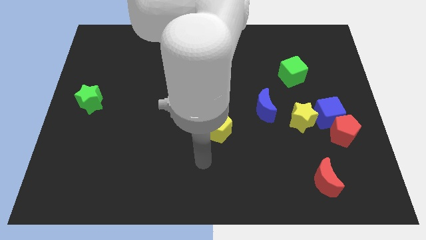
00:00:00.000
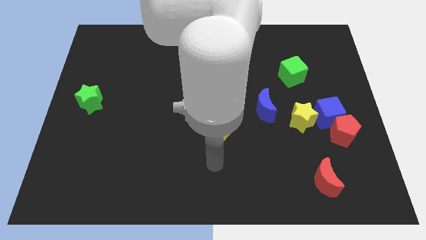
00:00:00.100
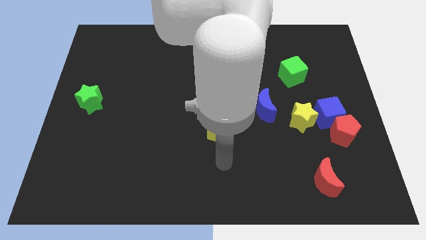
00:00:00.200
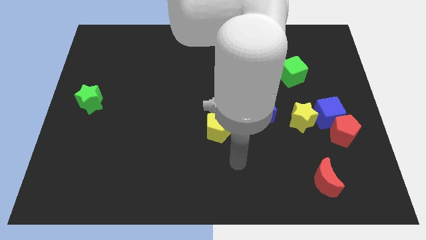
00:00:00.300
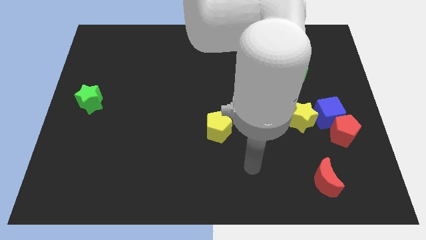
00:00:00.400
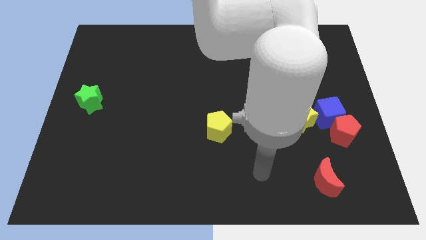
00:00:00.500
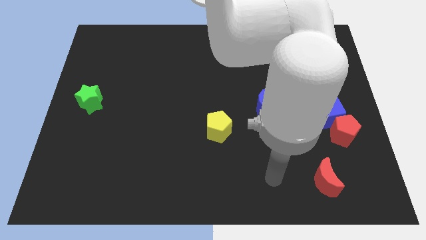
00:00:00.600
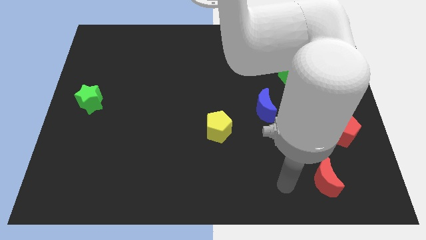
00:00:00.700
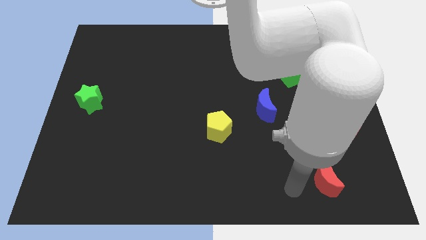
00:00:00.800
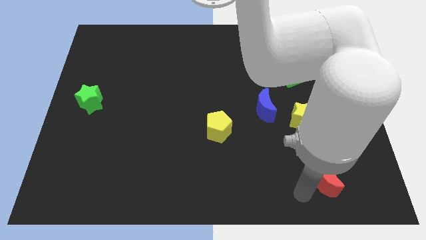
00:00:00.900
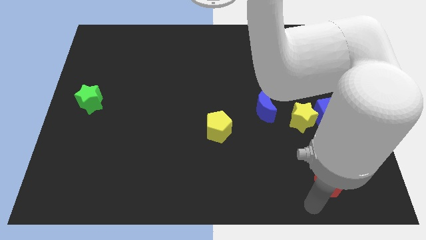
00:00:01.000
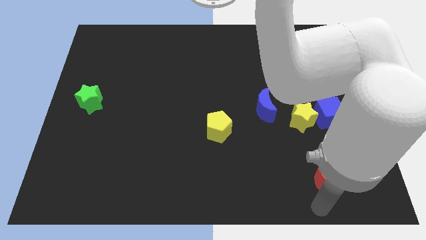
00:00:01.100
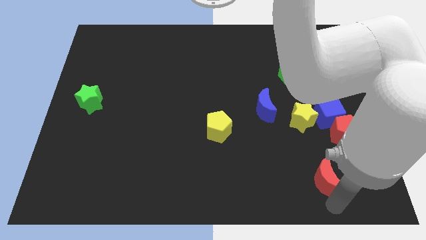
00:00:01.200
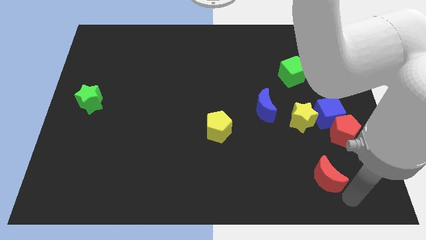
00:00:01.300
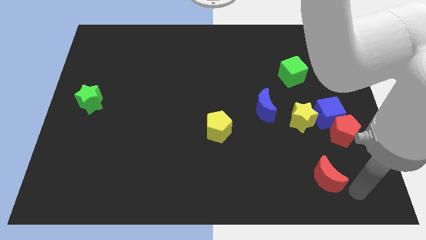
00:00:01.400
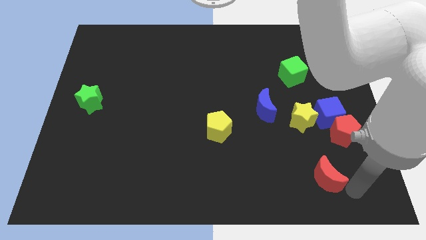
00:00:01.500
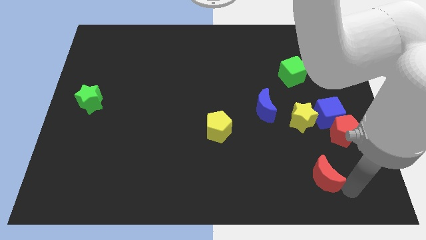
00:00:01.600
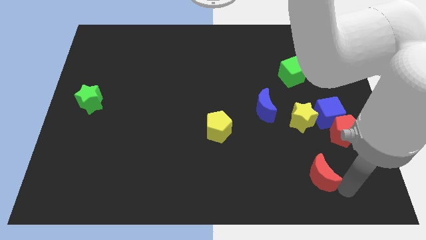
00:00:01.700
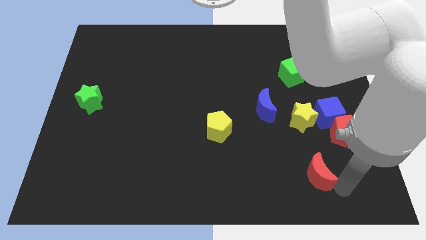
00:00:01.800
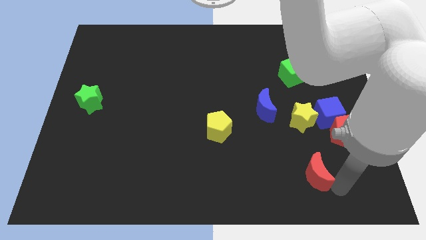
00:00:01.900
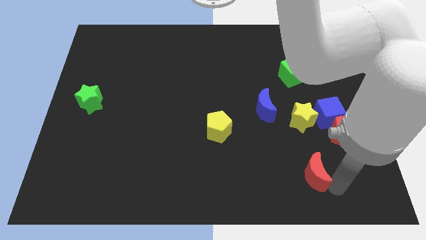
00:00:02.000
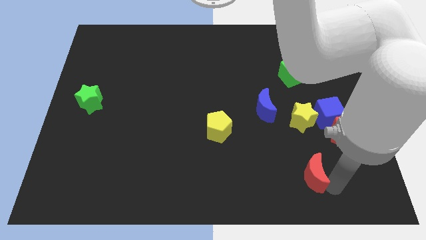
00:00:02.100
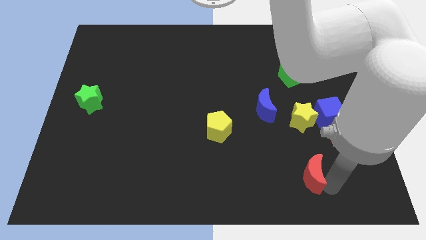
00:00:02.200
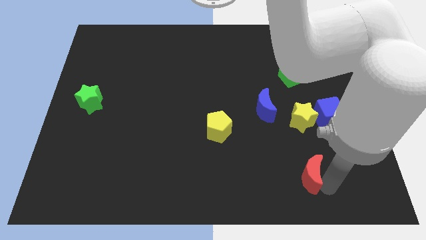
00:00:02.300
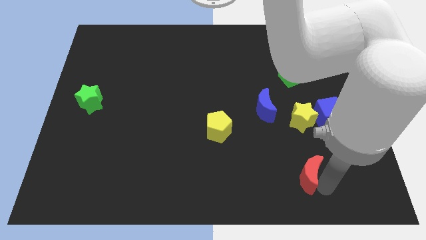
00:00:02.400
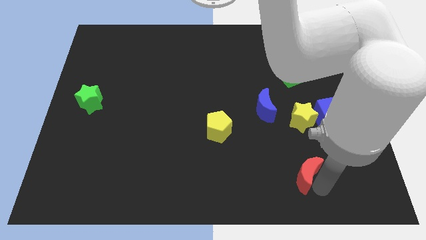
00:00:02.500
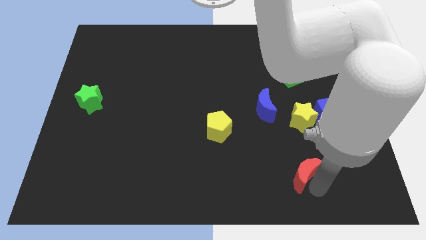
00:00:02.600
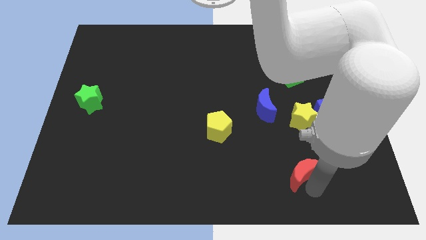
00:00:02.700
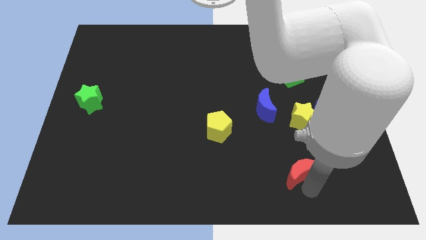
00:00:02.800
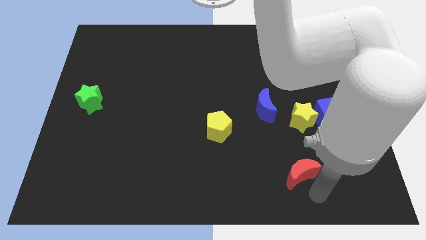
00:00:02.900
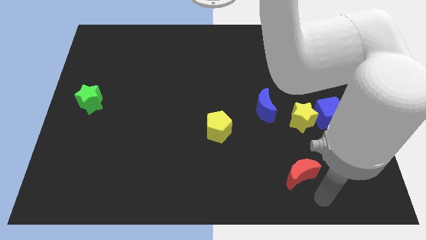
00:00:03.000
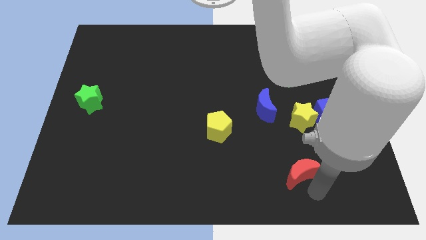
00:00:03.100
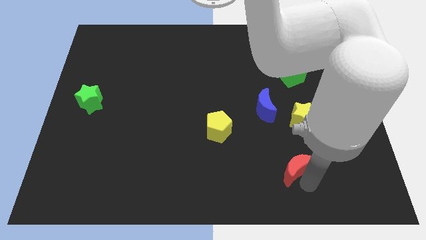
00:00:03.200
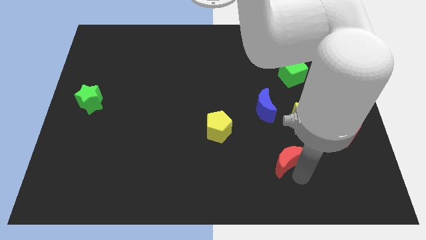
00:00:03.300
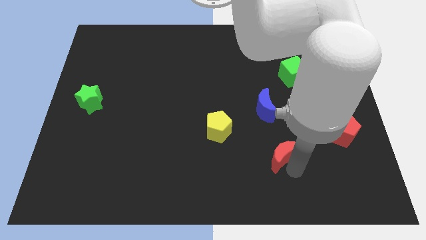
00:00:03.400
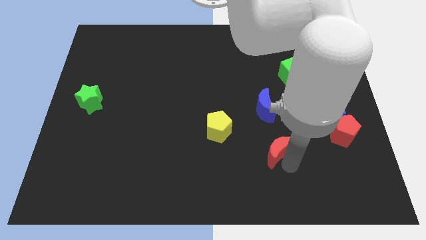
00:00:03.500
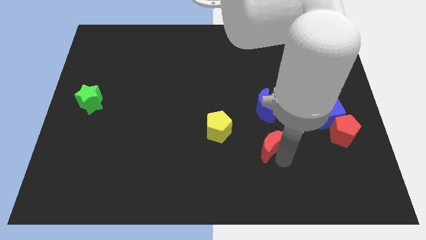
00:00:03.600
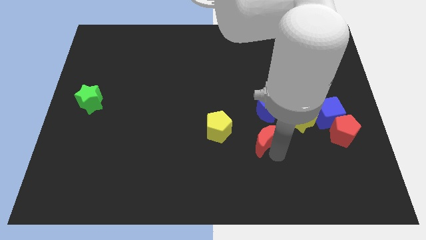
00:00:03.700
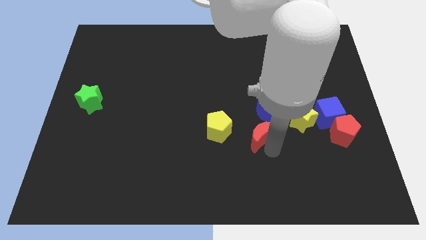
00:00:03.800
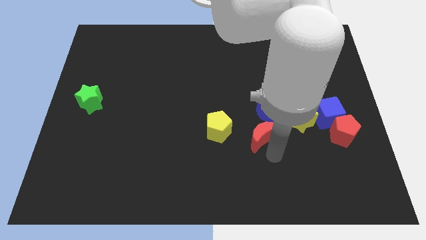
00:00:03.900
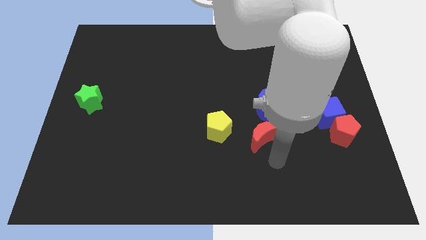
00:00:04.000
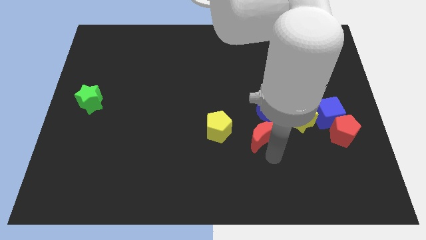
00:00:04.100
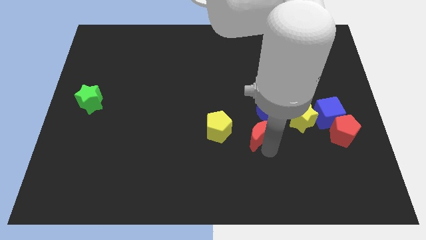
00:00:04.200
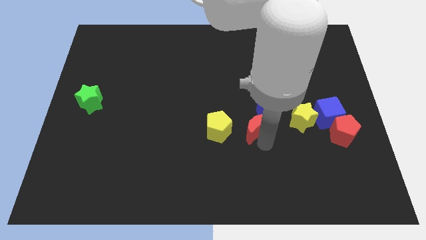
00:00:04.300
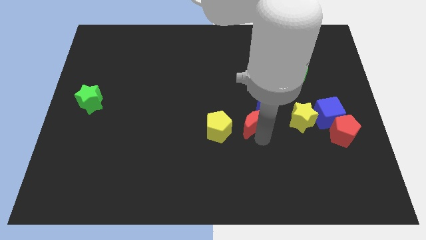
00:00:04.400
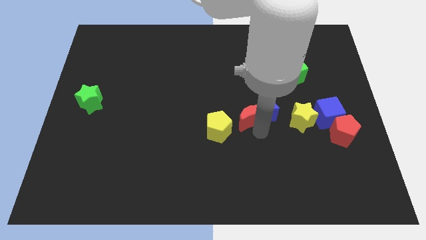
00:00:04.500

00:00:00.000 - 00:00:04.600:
push the red moon upwards and left diagonally

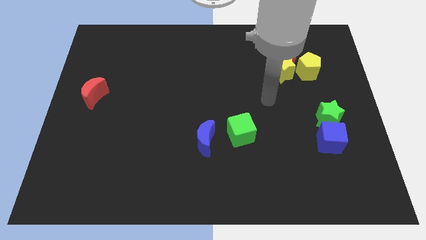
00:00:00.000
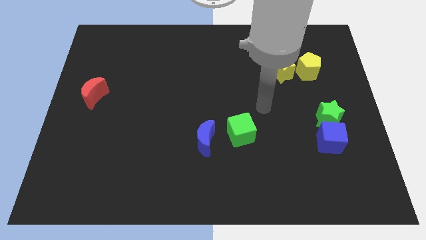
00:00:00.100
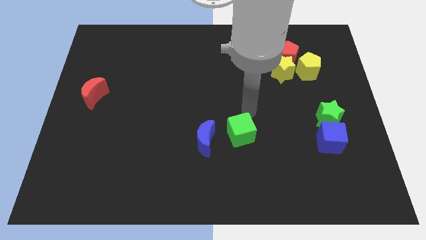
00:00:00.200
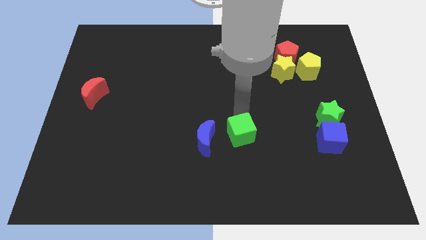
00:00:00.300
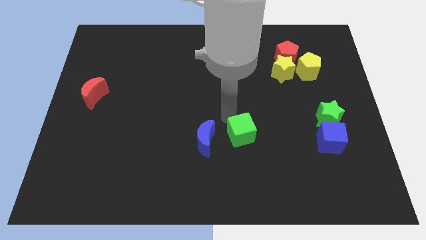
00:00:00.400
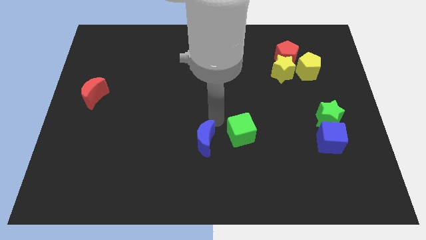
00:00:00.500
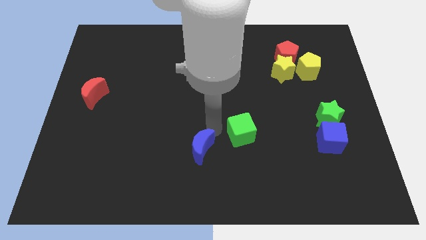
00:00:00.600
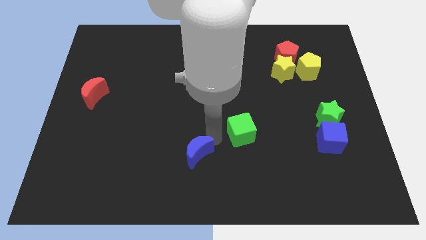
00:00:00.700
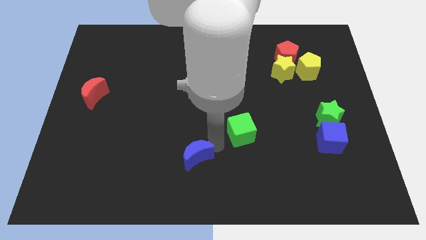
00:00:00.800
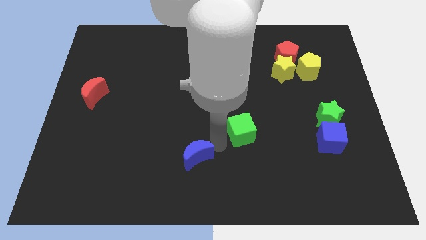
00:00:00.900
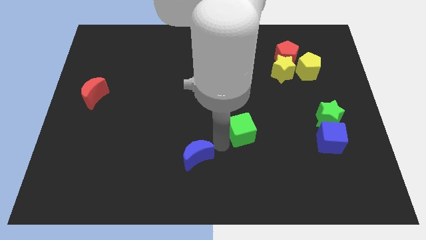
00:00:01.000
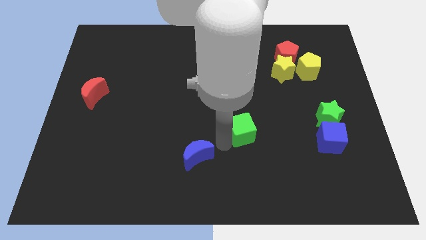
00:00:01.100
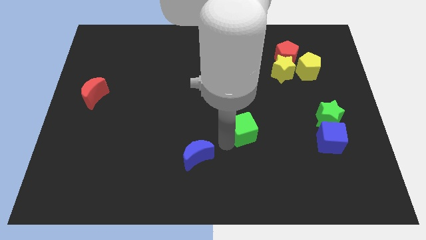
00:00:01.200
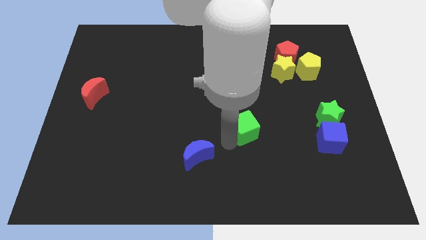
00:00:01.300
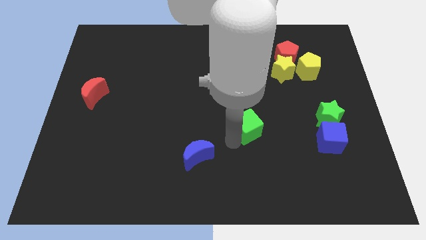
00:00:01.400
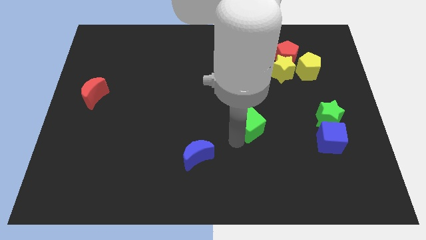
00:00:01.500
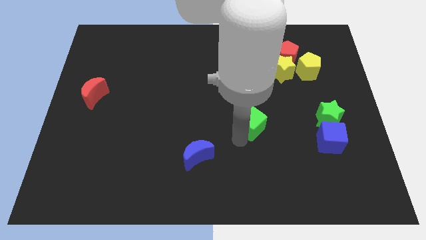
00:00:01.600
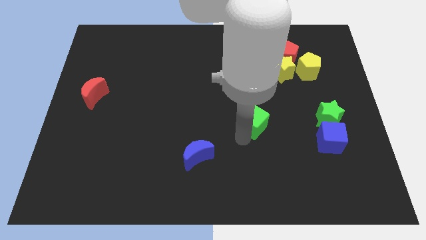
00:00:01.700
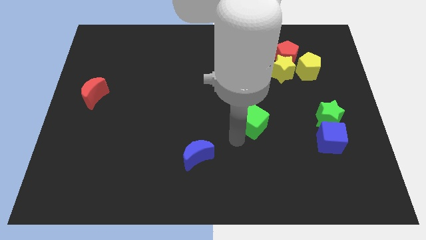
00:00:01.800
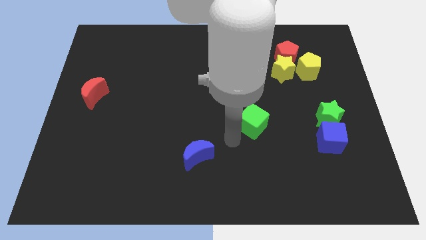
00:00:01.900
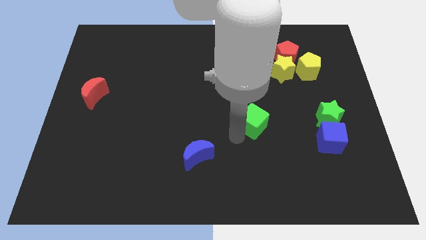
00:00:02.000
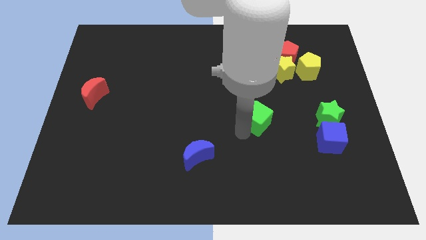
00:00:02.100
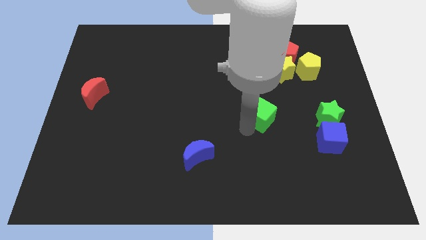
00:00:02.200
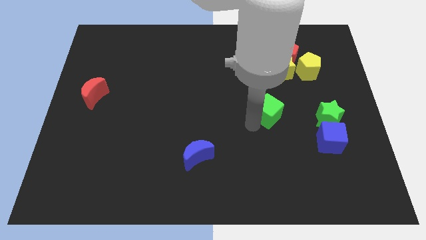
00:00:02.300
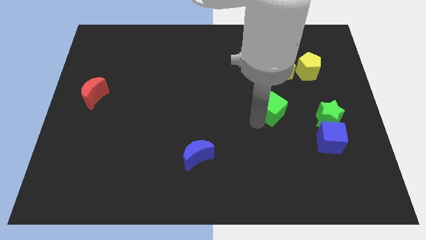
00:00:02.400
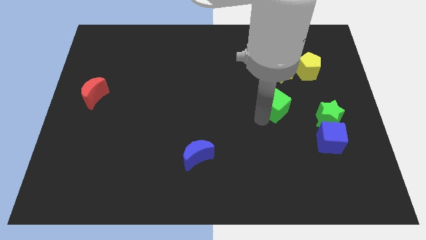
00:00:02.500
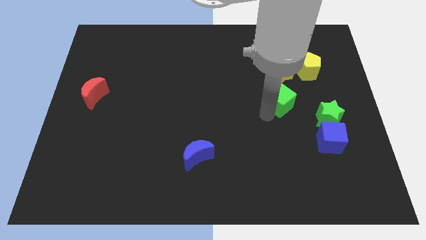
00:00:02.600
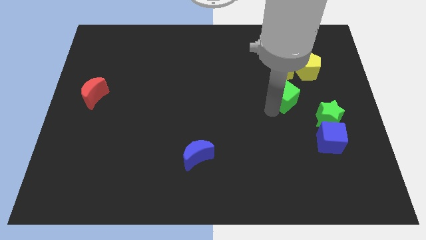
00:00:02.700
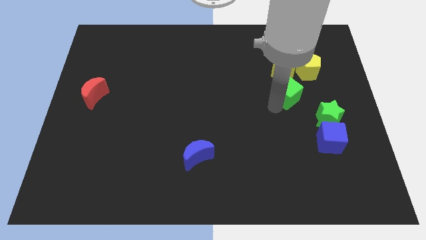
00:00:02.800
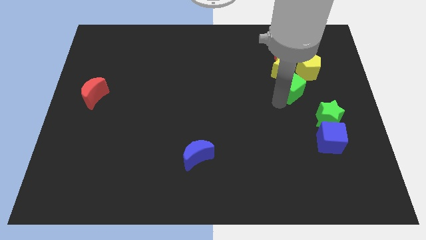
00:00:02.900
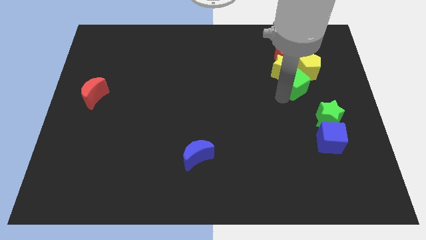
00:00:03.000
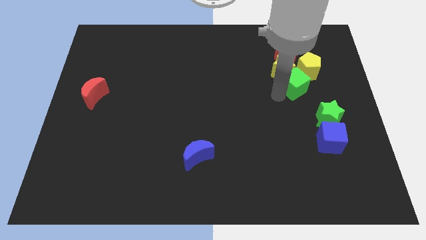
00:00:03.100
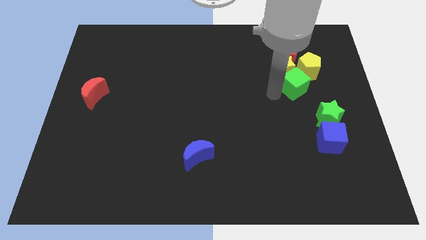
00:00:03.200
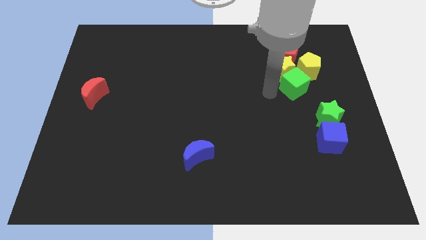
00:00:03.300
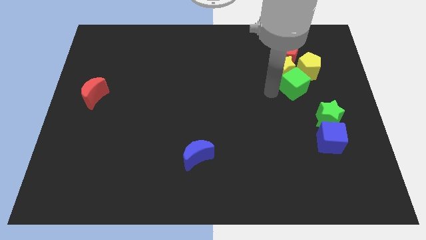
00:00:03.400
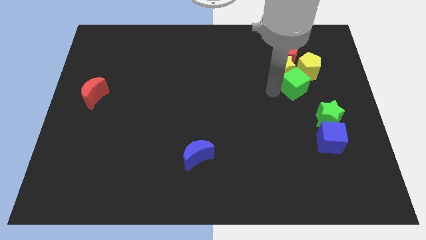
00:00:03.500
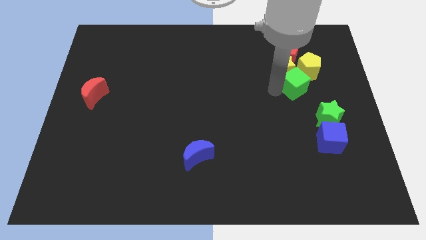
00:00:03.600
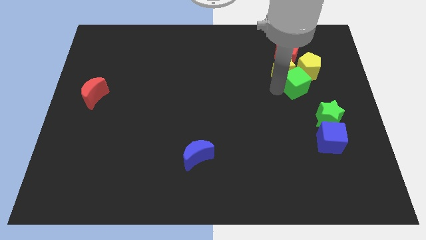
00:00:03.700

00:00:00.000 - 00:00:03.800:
push the green cube diagonally up and right
